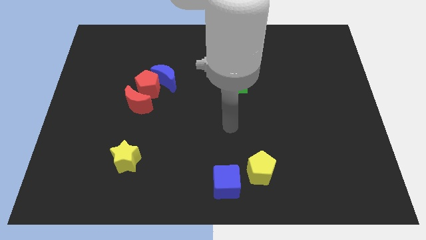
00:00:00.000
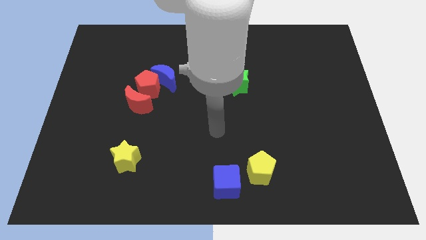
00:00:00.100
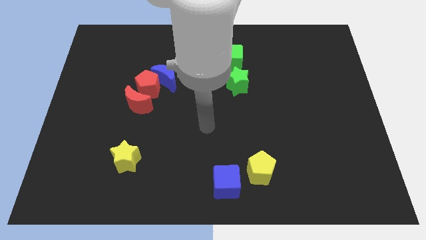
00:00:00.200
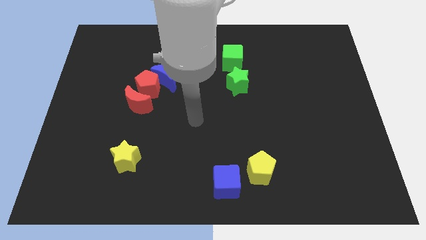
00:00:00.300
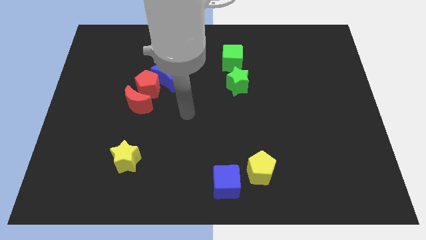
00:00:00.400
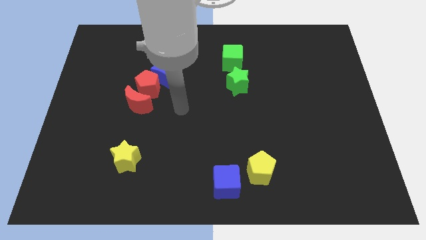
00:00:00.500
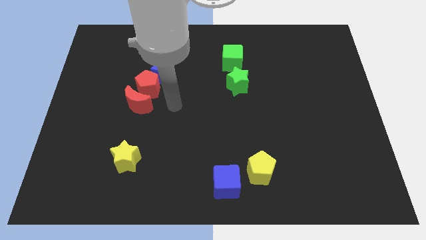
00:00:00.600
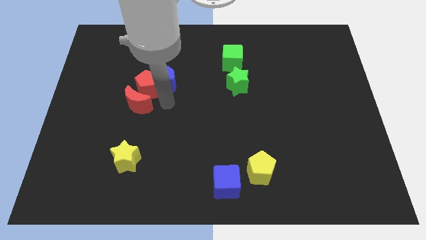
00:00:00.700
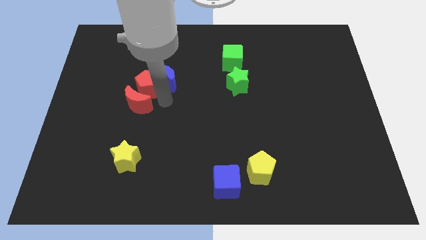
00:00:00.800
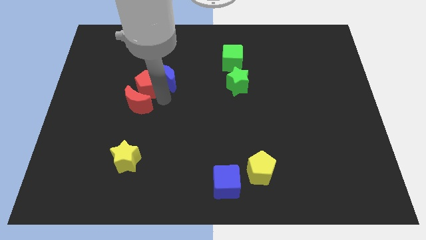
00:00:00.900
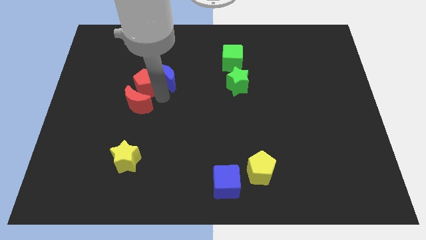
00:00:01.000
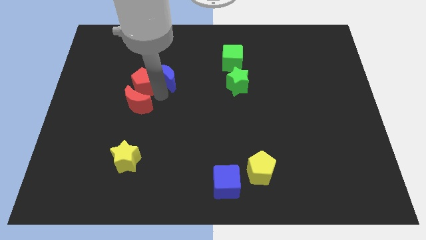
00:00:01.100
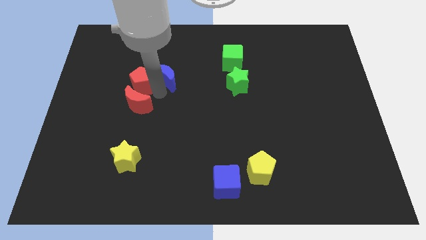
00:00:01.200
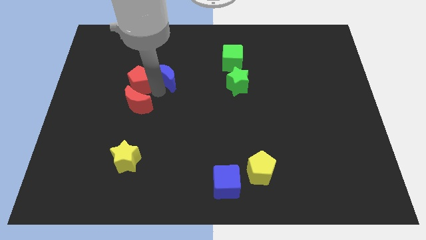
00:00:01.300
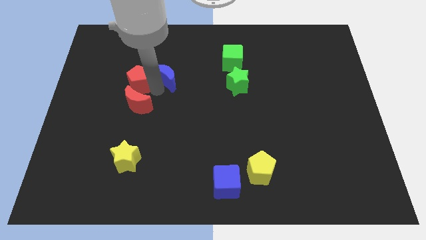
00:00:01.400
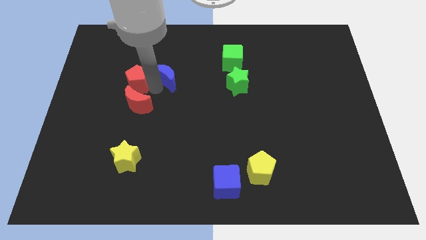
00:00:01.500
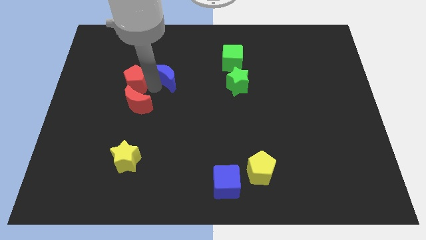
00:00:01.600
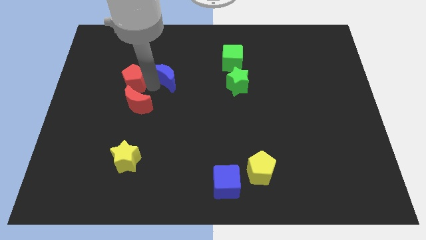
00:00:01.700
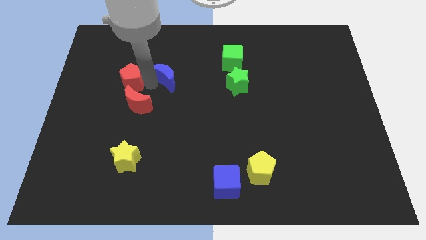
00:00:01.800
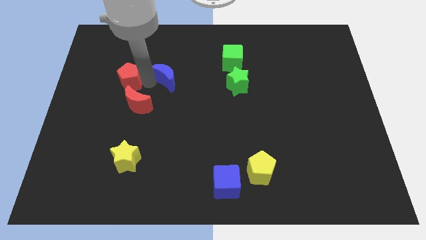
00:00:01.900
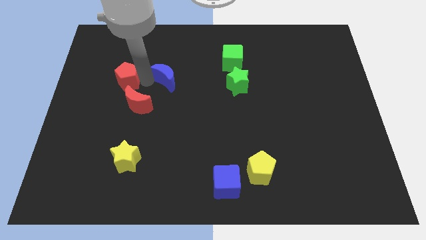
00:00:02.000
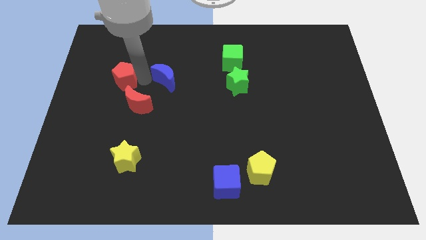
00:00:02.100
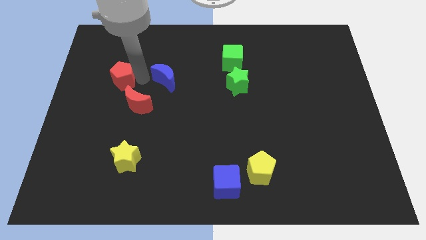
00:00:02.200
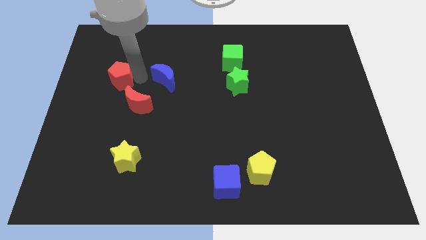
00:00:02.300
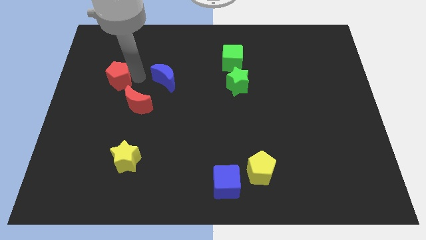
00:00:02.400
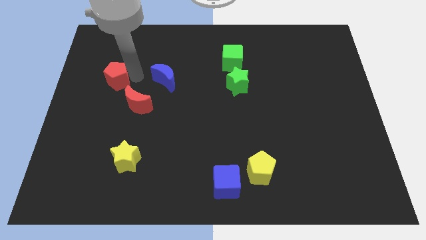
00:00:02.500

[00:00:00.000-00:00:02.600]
separate the red pentagon from the blue moon and red moon

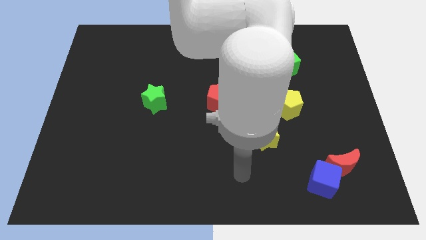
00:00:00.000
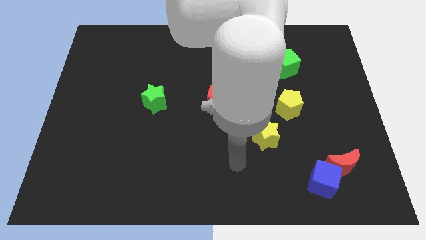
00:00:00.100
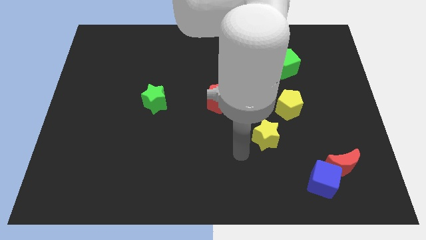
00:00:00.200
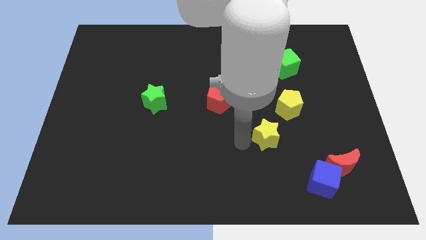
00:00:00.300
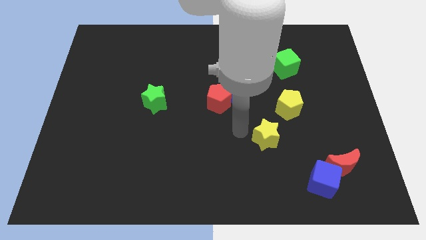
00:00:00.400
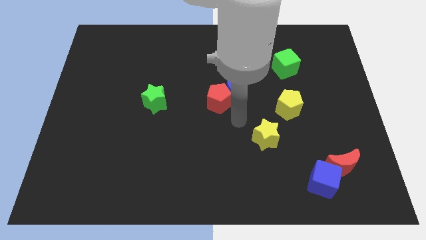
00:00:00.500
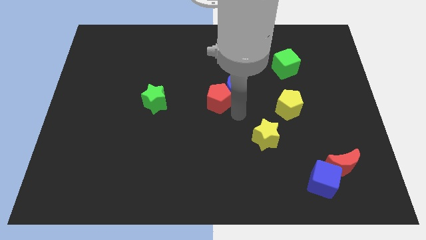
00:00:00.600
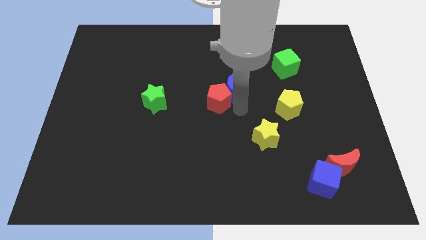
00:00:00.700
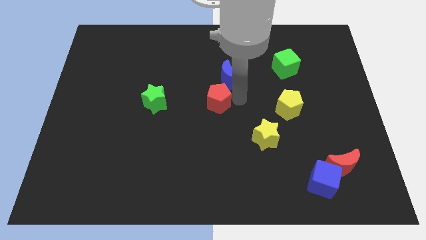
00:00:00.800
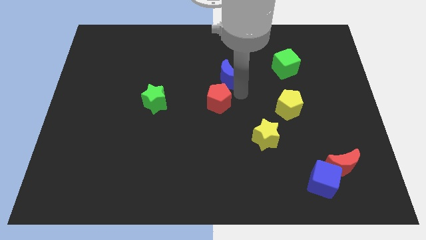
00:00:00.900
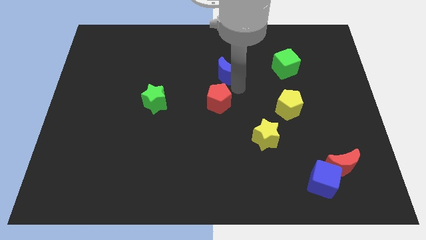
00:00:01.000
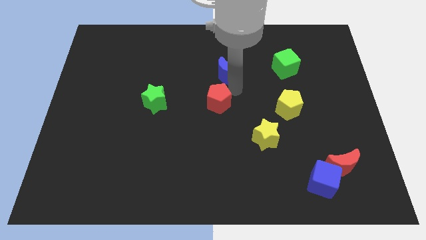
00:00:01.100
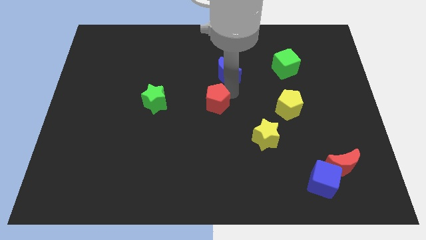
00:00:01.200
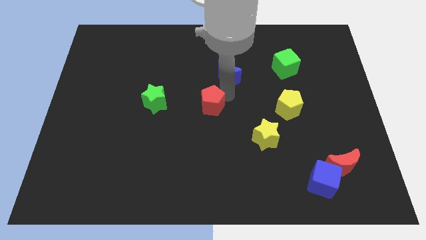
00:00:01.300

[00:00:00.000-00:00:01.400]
separate the red pentagon from the blue moon

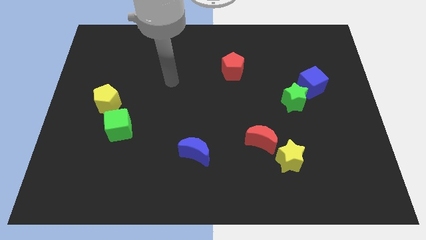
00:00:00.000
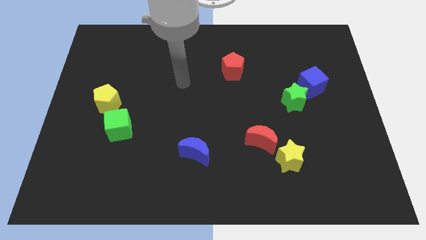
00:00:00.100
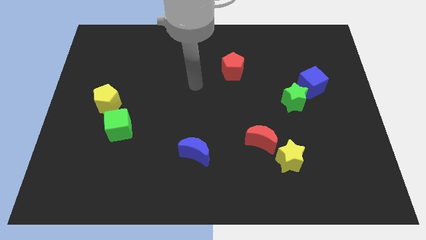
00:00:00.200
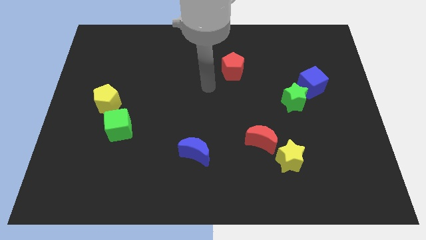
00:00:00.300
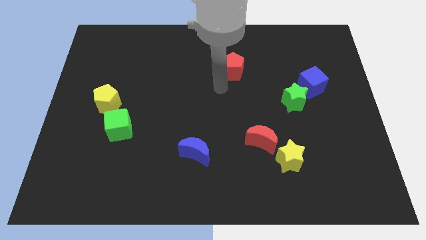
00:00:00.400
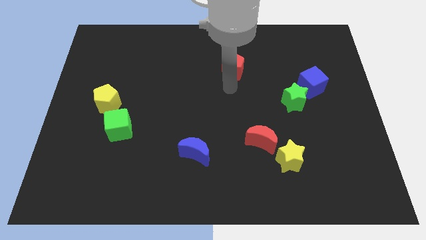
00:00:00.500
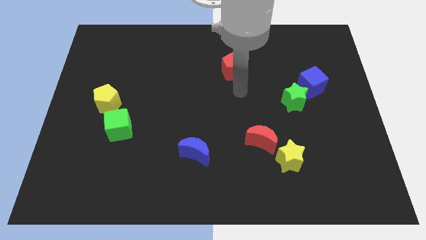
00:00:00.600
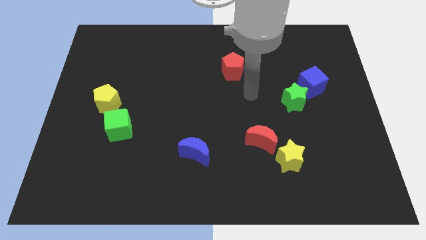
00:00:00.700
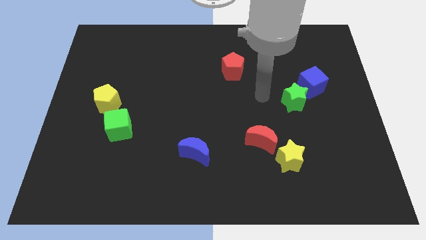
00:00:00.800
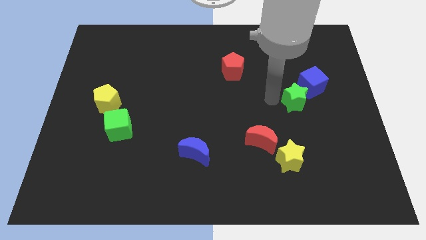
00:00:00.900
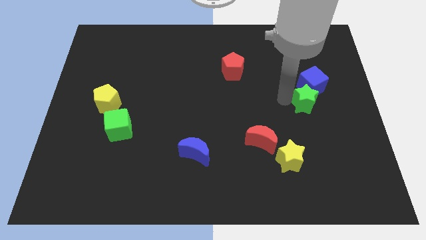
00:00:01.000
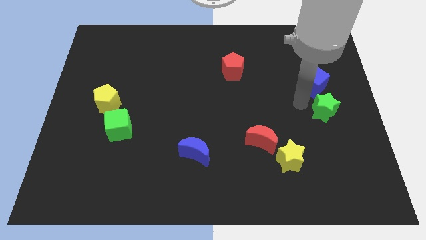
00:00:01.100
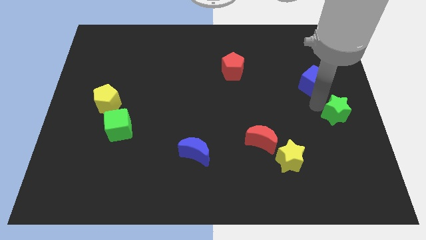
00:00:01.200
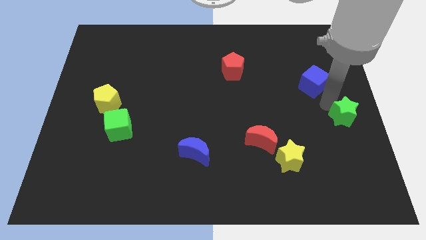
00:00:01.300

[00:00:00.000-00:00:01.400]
separate the blue cube from the green star

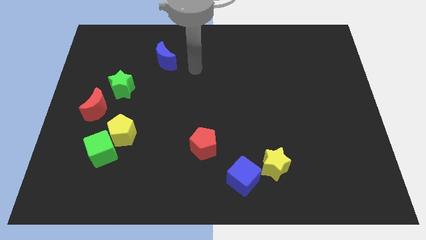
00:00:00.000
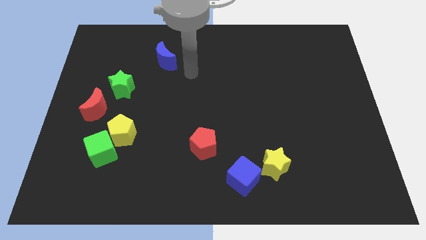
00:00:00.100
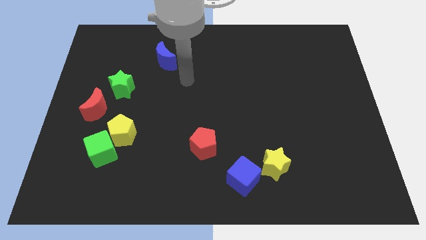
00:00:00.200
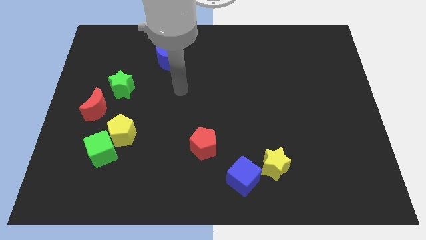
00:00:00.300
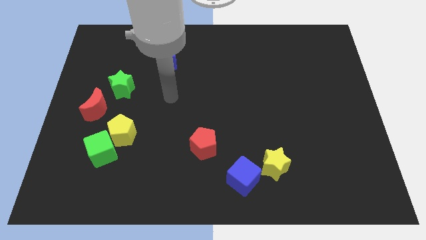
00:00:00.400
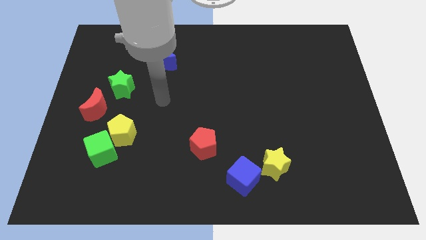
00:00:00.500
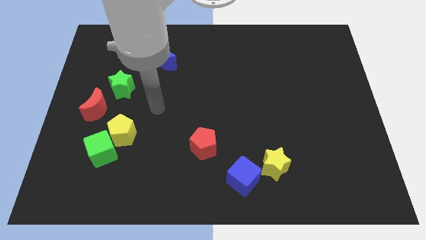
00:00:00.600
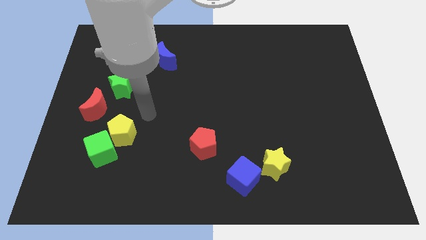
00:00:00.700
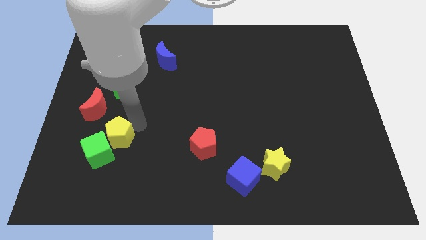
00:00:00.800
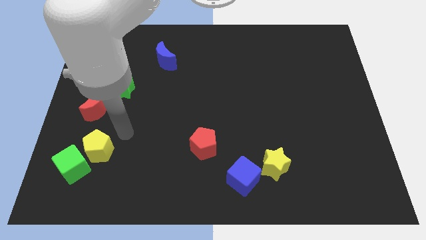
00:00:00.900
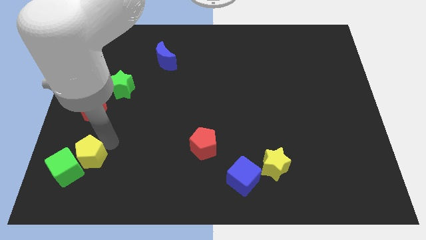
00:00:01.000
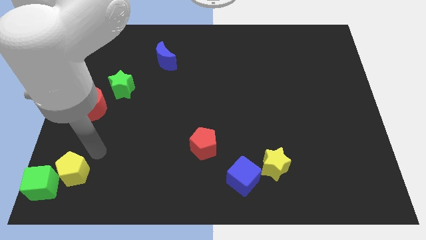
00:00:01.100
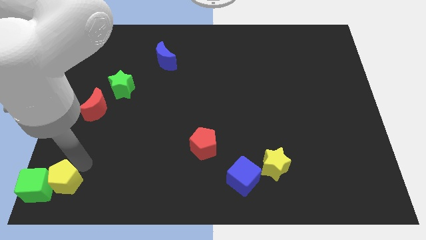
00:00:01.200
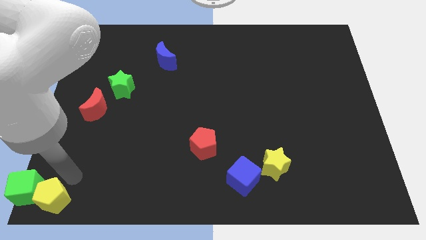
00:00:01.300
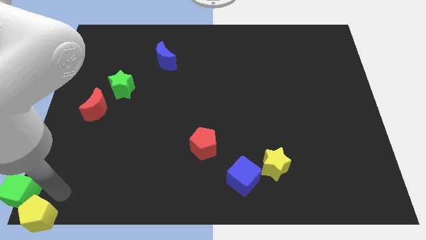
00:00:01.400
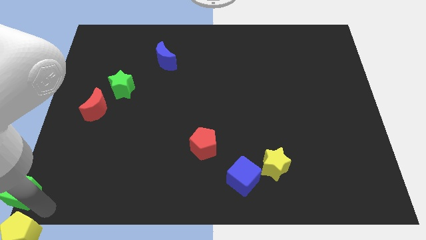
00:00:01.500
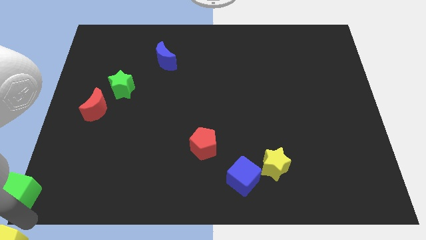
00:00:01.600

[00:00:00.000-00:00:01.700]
separate the green cube from the yellow pentagon

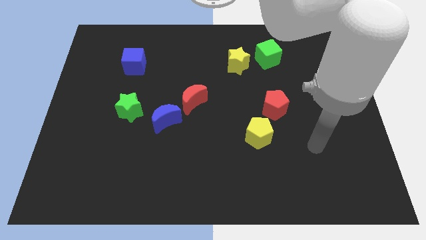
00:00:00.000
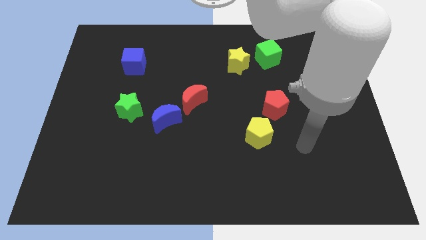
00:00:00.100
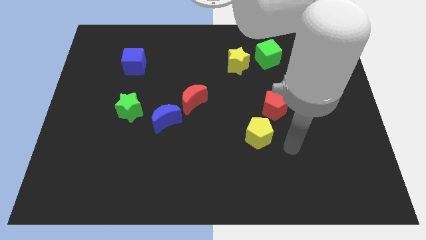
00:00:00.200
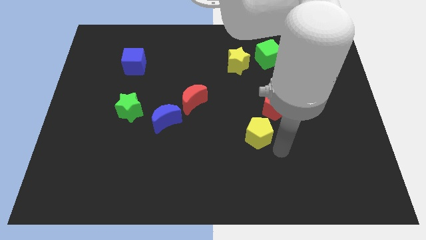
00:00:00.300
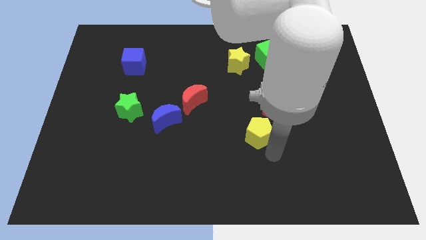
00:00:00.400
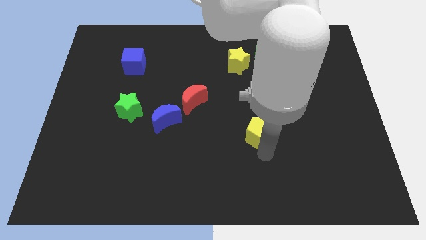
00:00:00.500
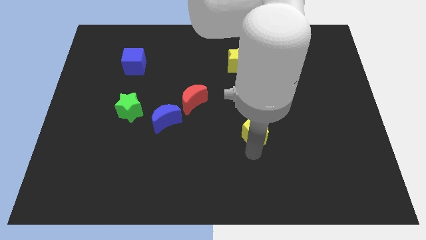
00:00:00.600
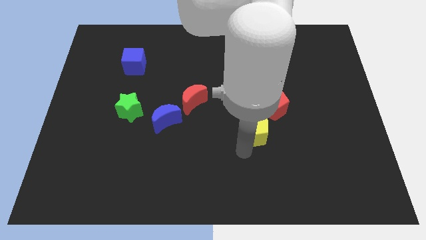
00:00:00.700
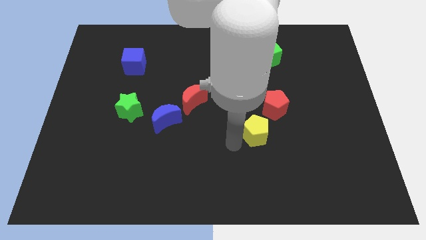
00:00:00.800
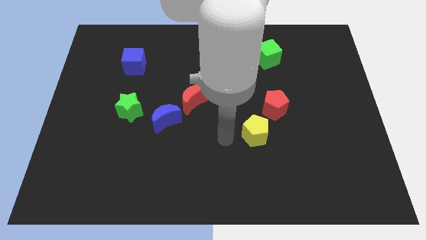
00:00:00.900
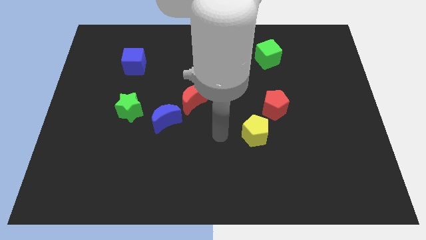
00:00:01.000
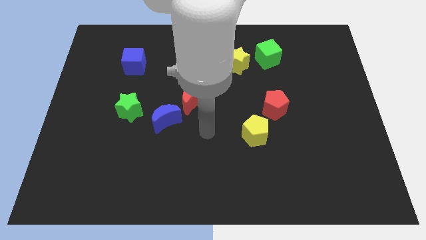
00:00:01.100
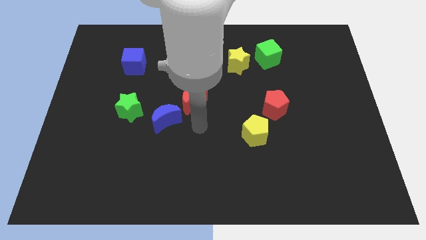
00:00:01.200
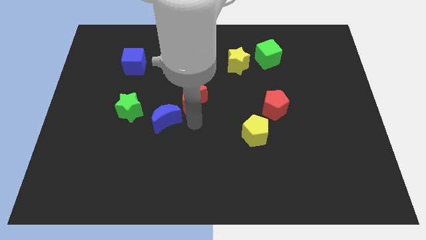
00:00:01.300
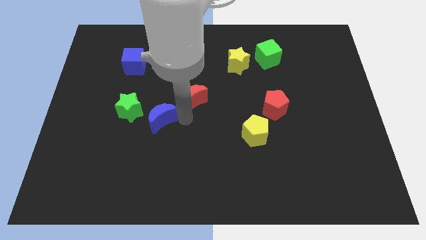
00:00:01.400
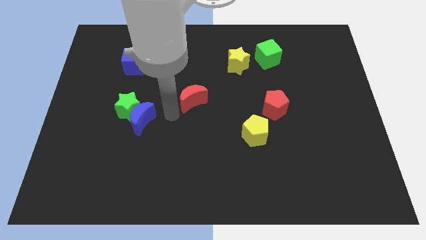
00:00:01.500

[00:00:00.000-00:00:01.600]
separate the red moon from the blue moon

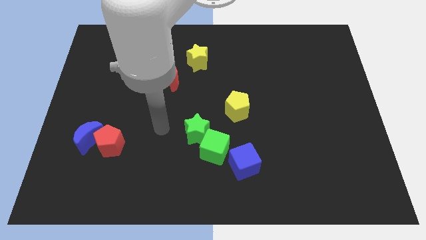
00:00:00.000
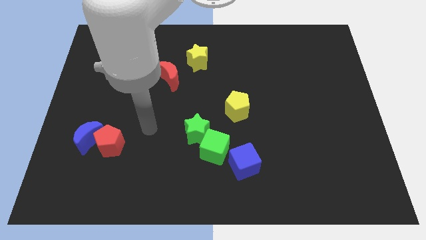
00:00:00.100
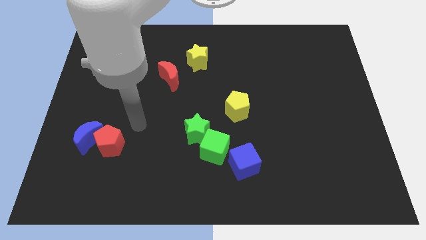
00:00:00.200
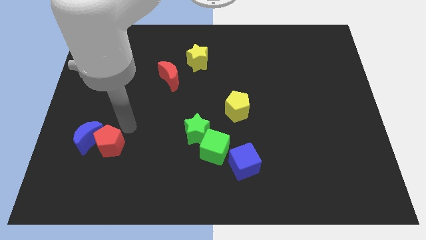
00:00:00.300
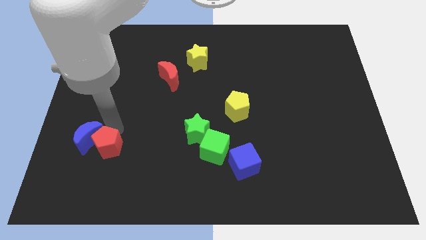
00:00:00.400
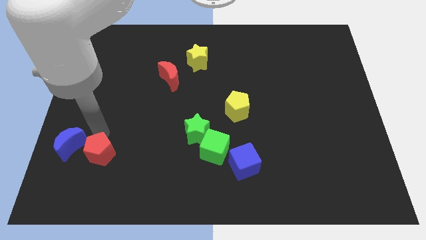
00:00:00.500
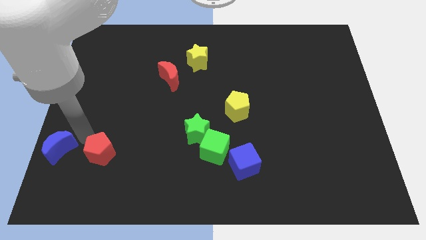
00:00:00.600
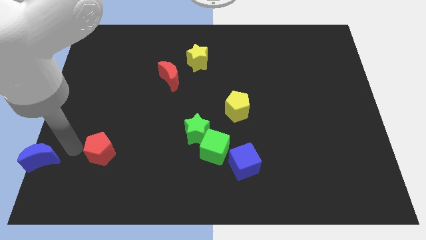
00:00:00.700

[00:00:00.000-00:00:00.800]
pull the red pentagon apart from the blue moon
